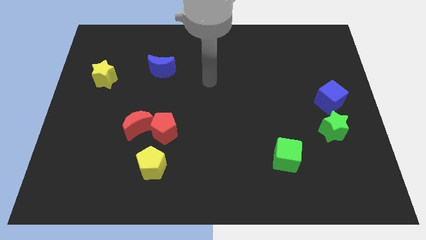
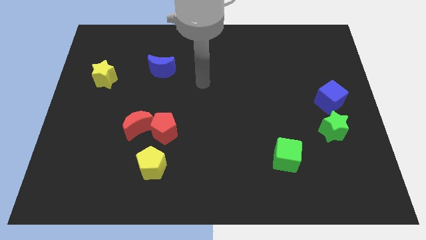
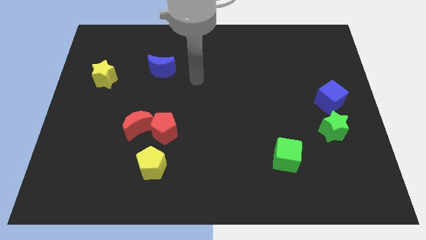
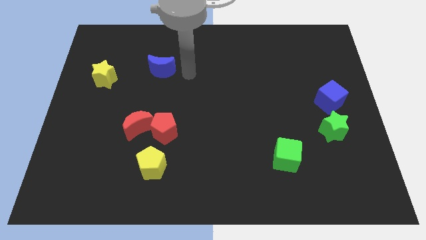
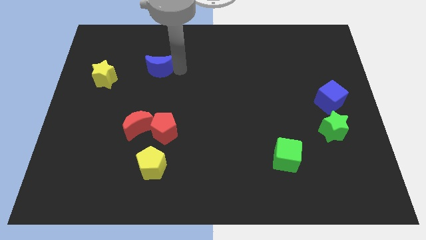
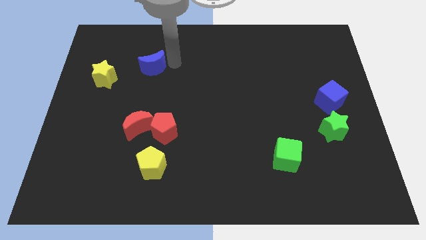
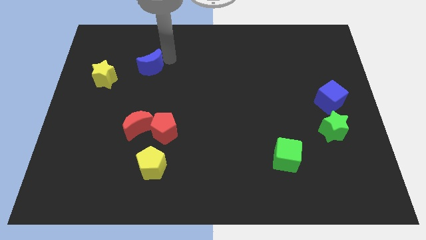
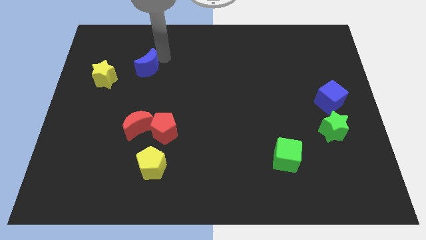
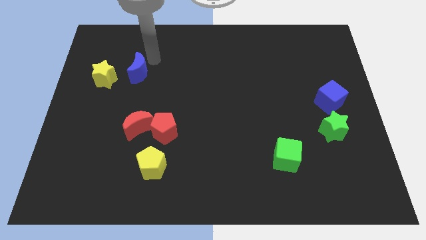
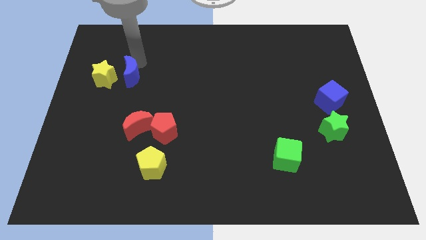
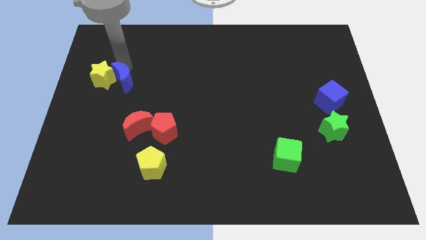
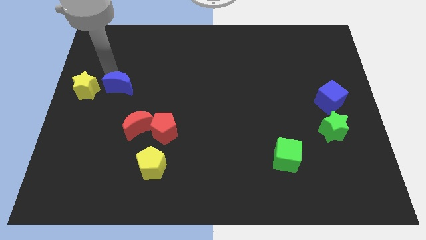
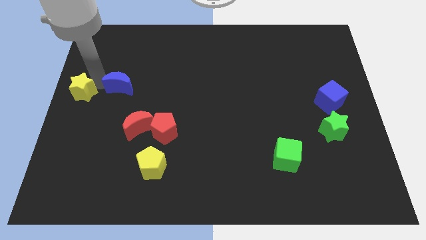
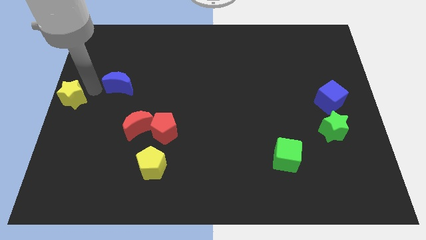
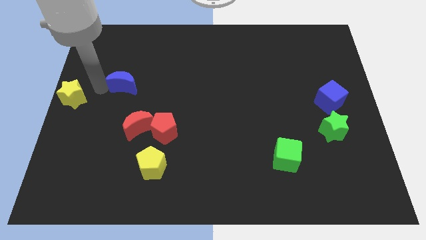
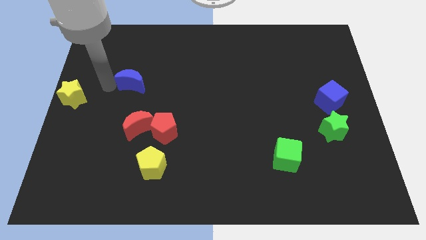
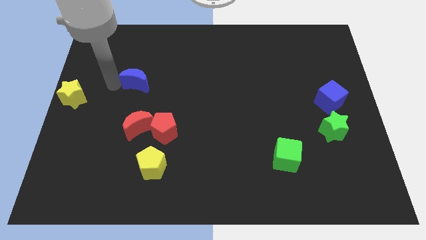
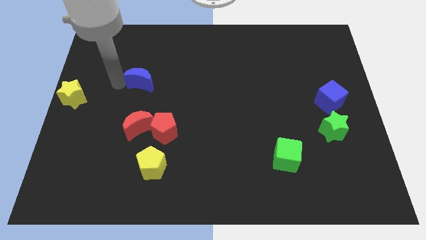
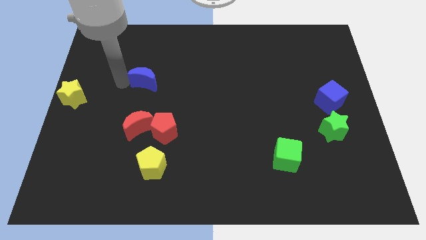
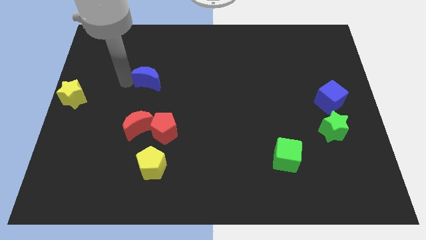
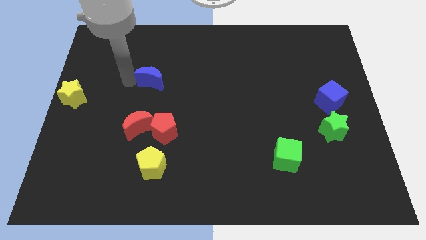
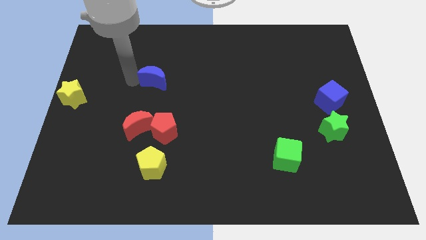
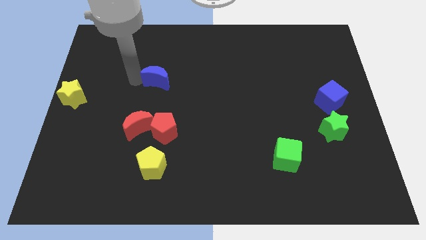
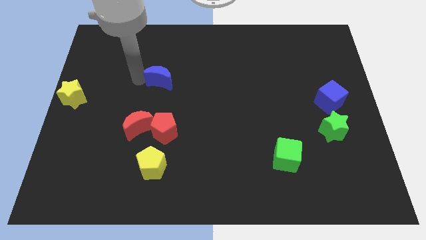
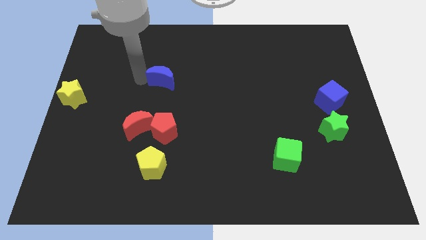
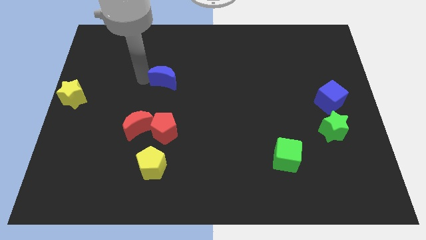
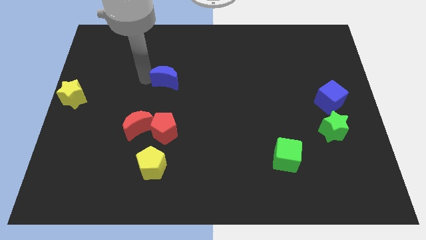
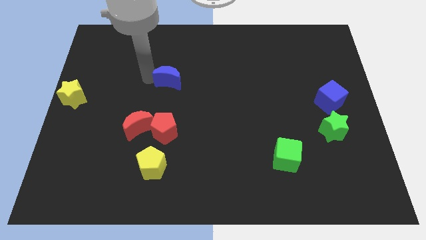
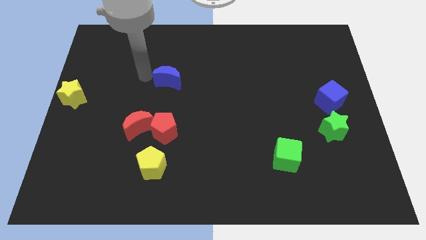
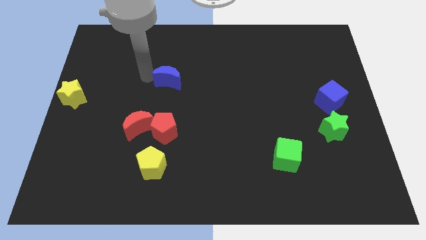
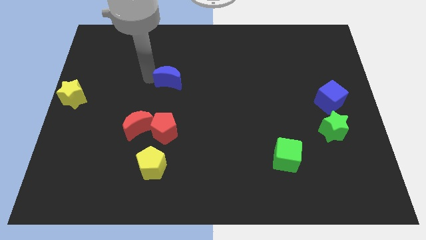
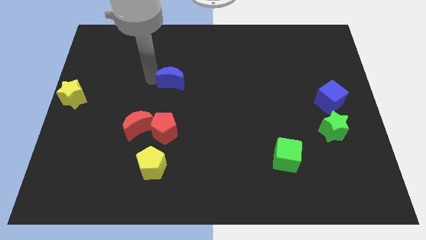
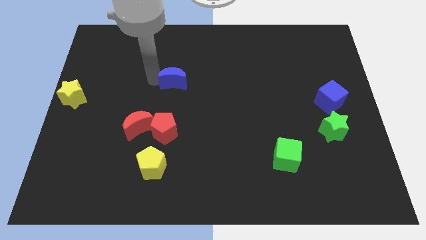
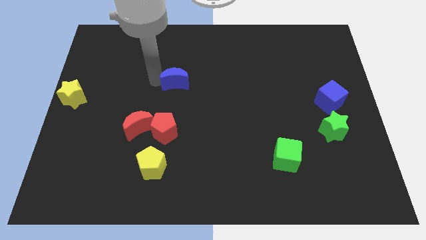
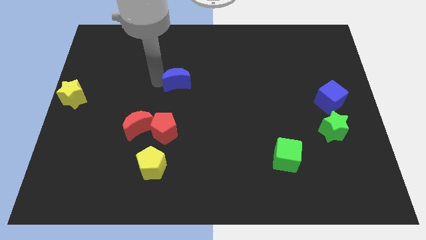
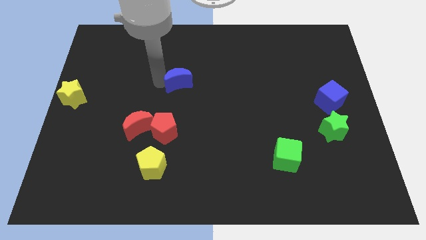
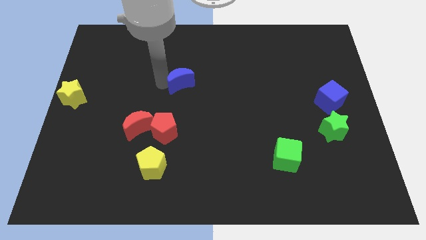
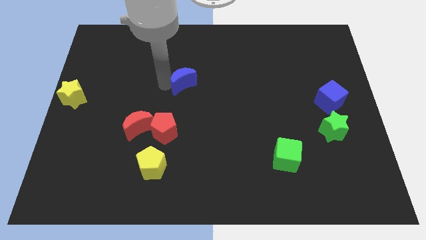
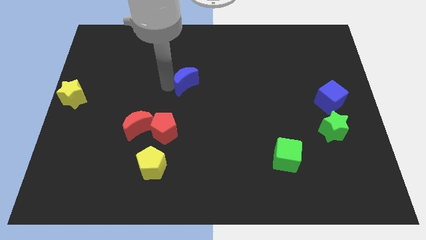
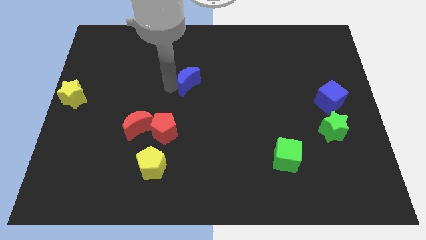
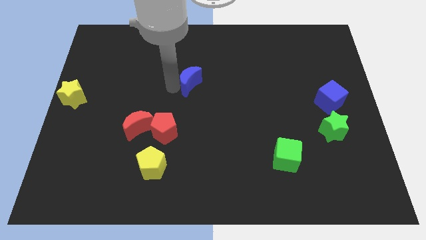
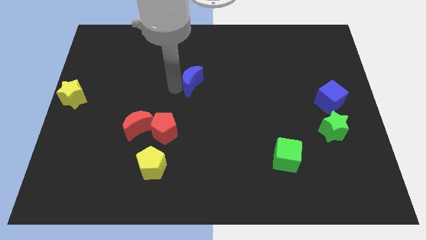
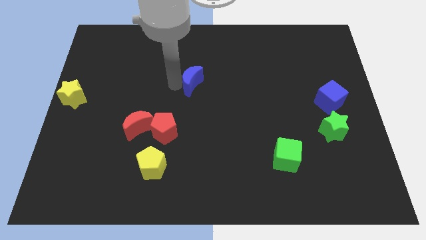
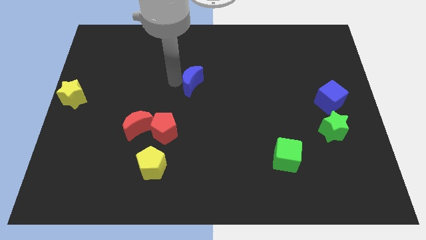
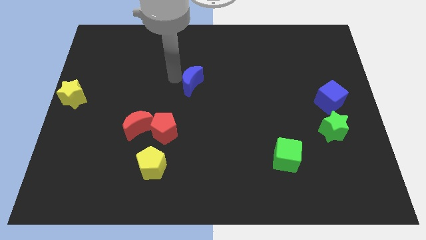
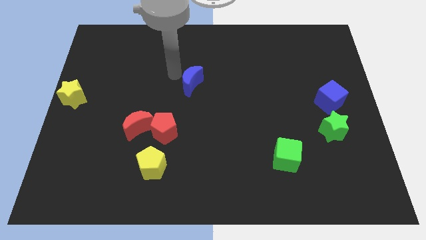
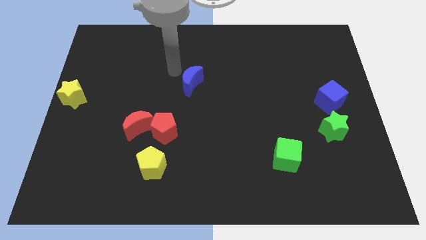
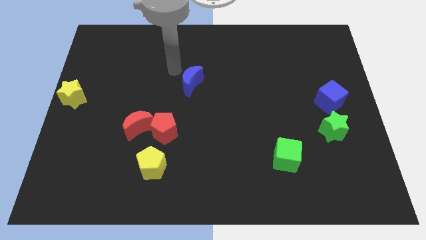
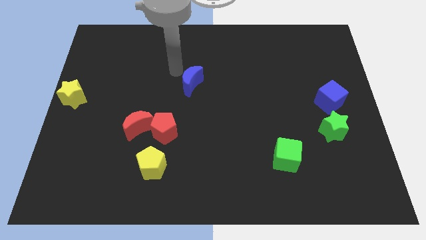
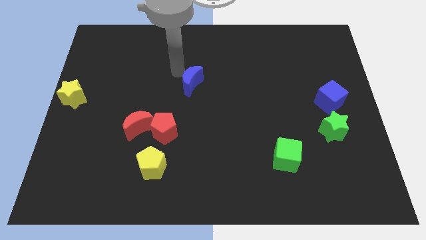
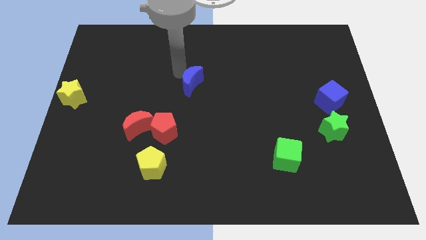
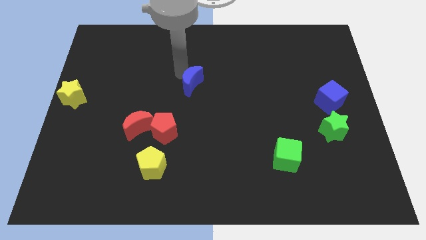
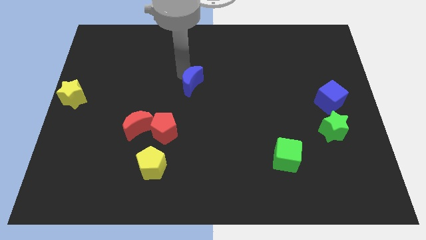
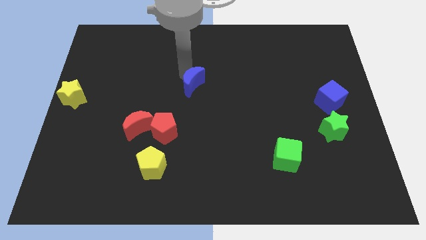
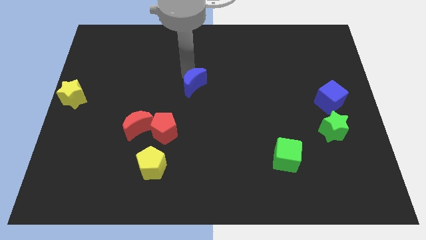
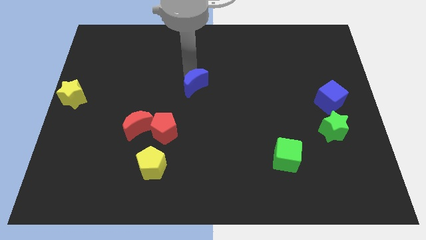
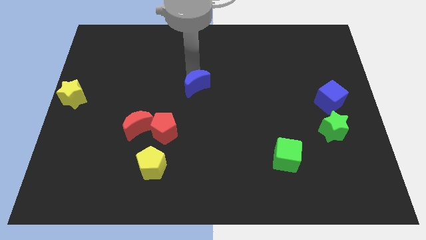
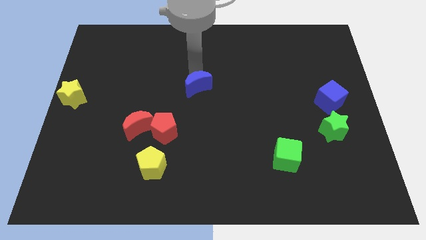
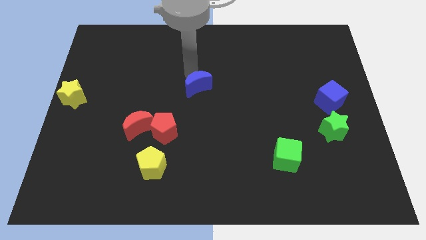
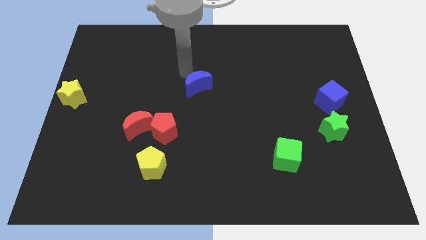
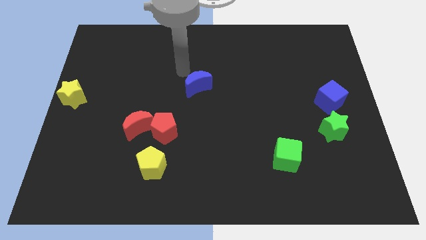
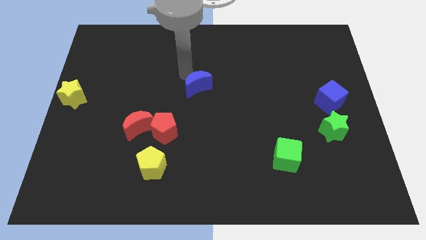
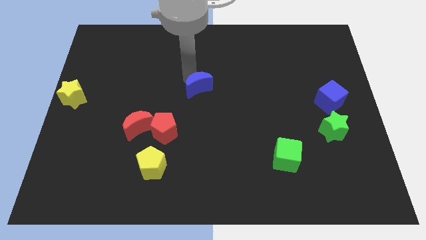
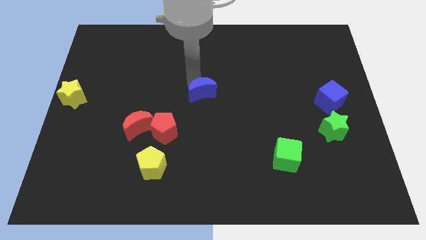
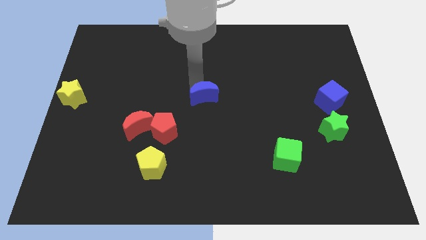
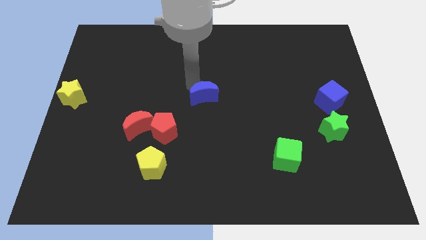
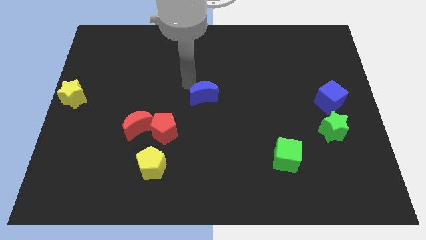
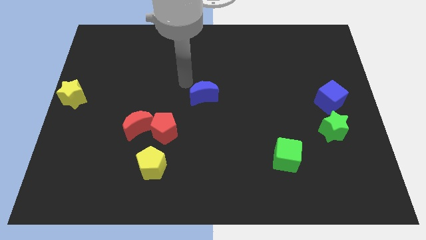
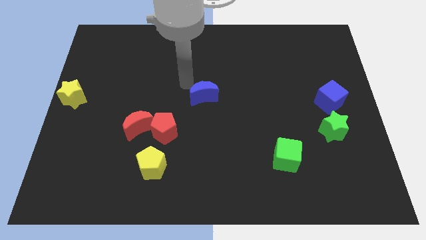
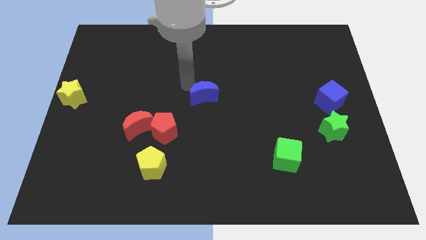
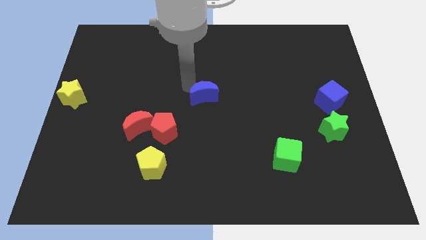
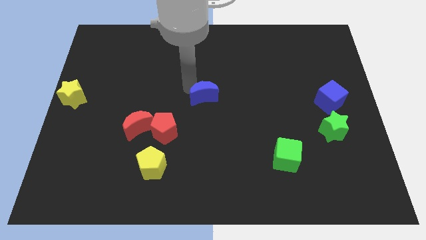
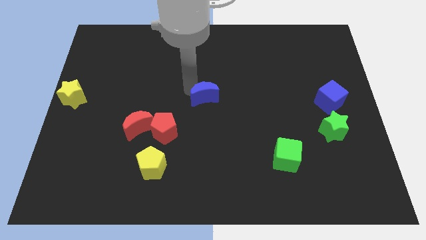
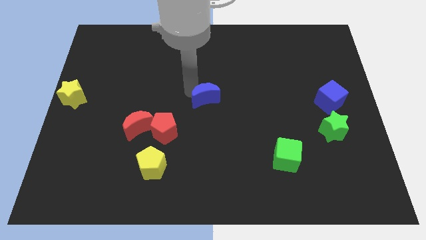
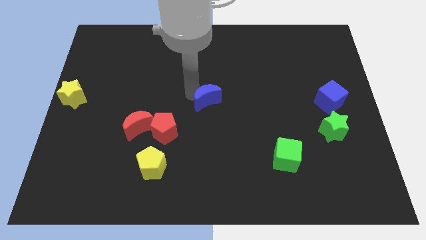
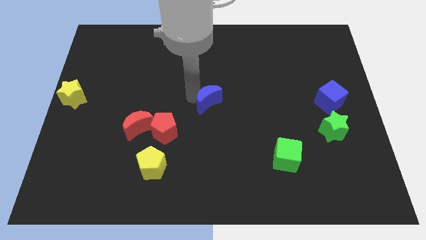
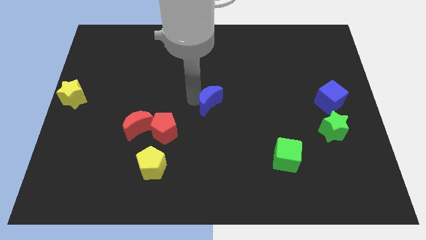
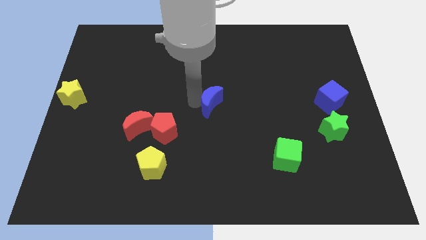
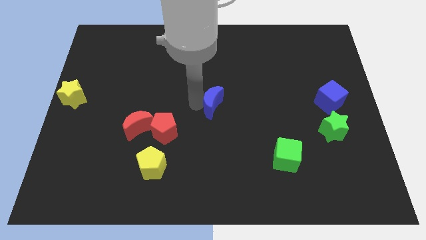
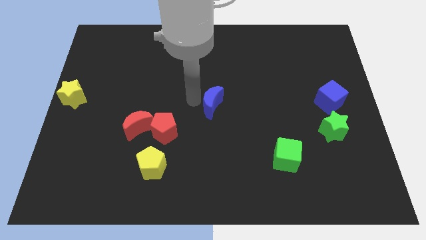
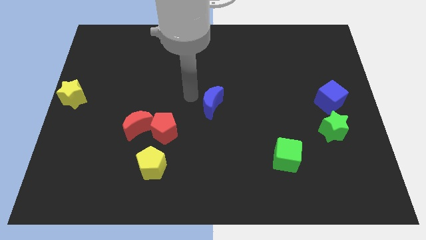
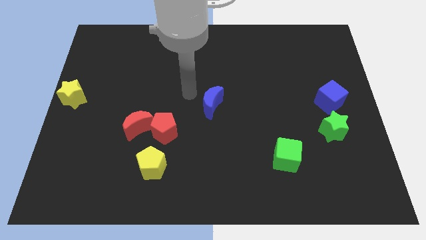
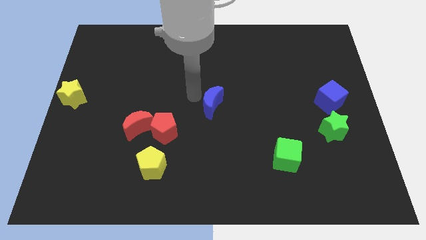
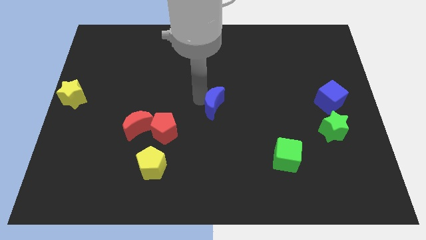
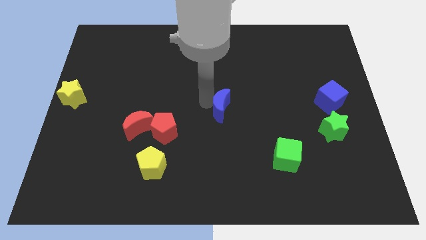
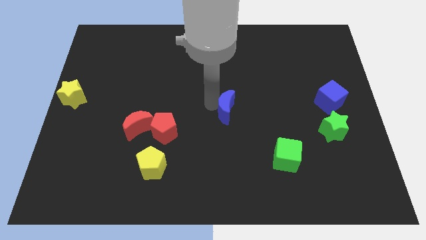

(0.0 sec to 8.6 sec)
slide the blue moon downwards and to the right
